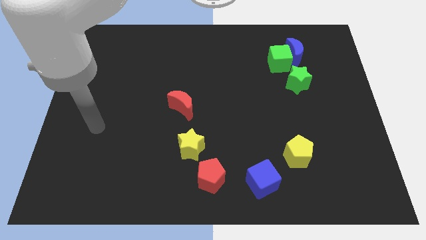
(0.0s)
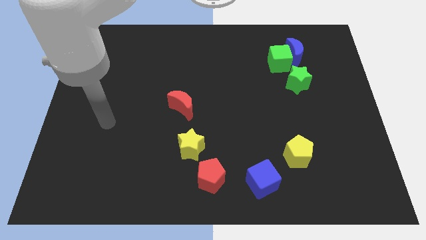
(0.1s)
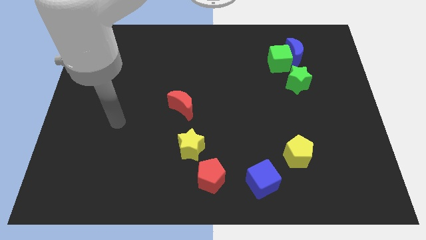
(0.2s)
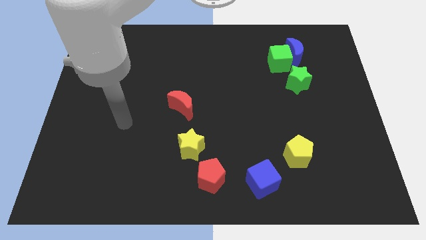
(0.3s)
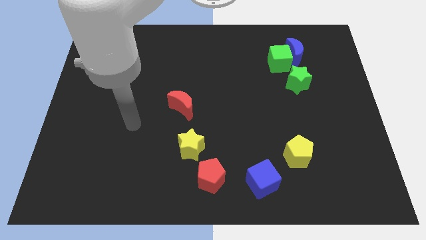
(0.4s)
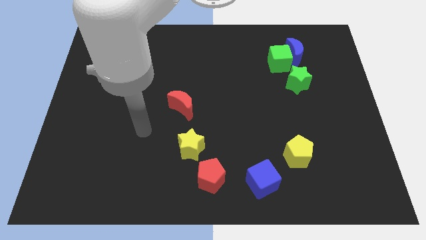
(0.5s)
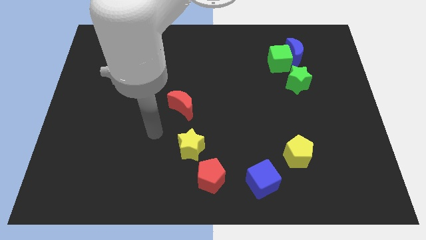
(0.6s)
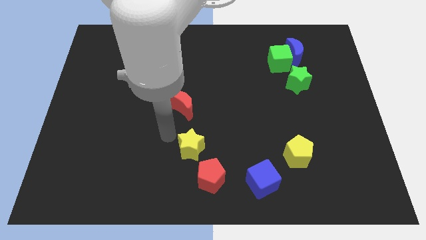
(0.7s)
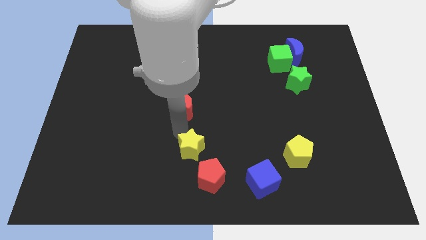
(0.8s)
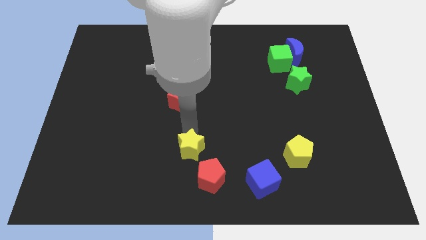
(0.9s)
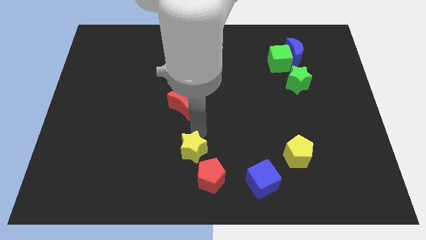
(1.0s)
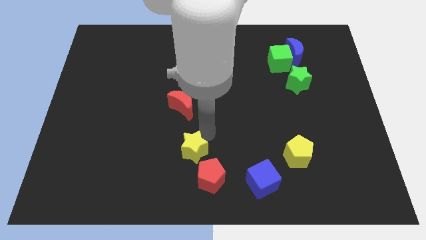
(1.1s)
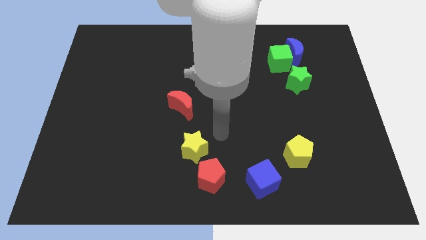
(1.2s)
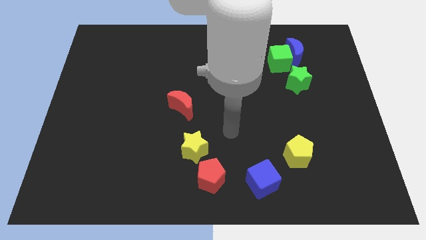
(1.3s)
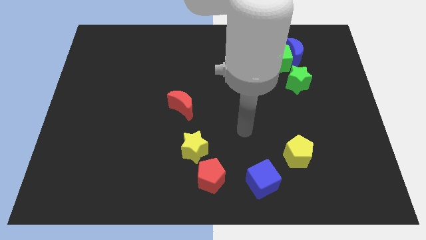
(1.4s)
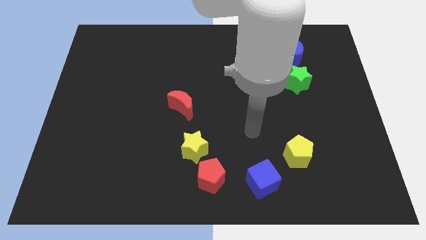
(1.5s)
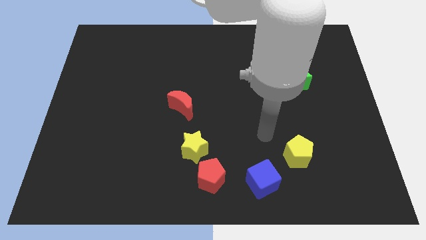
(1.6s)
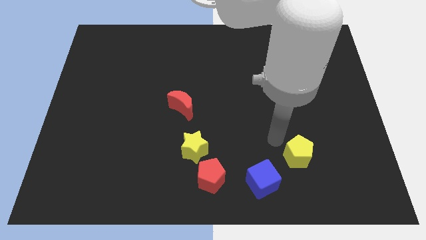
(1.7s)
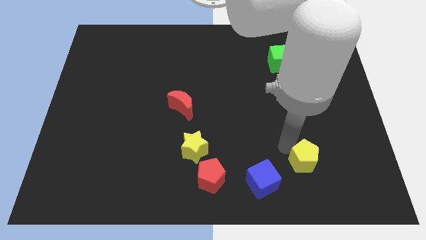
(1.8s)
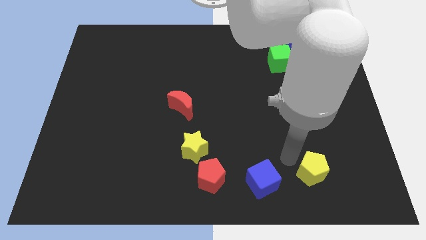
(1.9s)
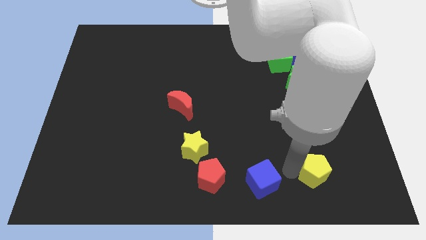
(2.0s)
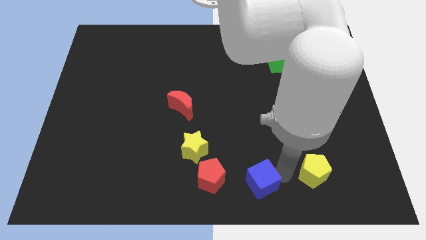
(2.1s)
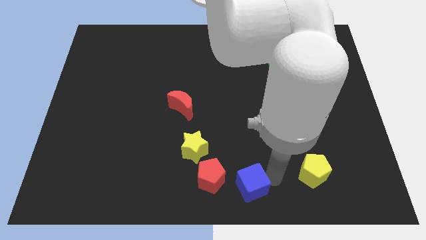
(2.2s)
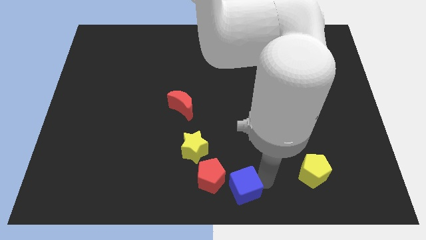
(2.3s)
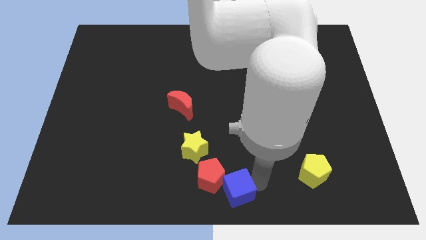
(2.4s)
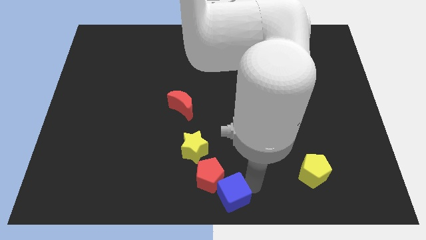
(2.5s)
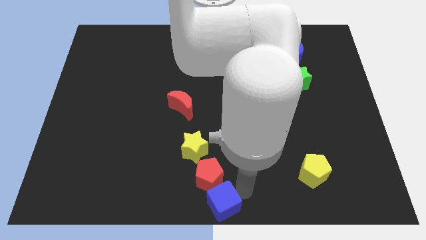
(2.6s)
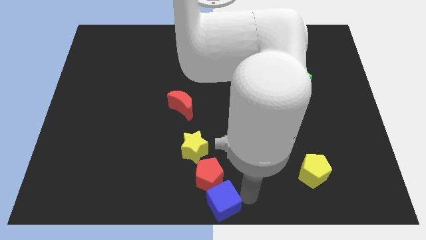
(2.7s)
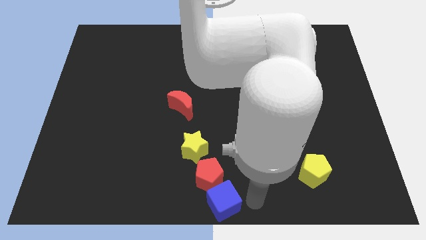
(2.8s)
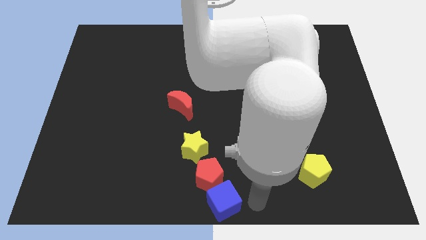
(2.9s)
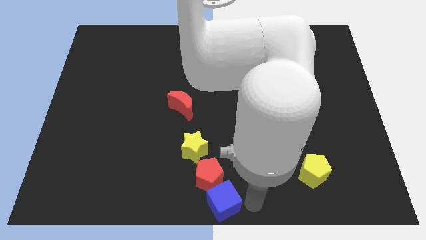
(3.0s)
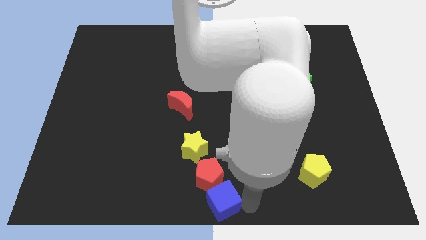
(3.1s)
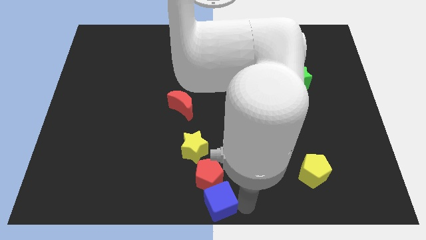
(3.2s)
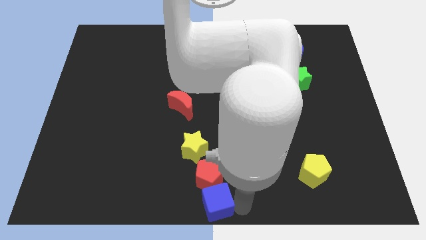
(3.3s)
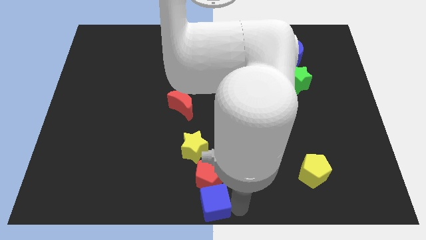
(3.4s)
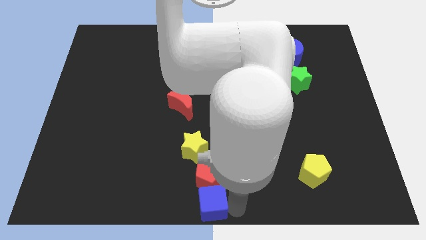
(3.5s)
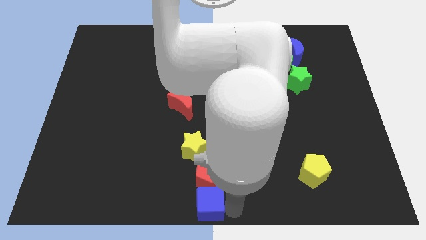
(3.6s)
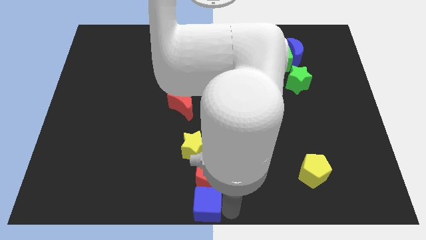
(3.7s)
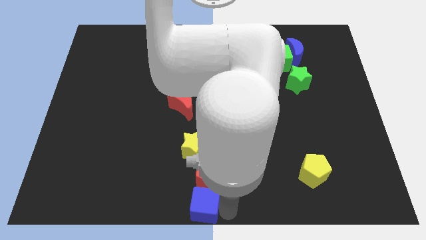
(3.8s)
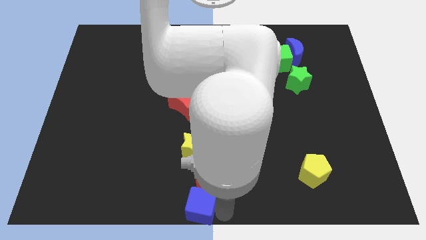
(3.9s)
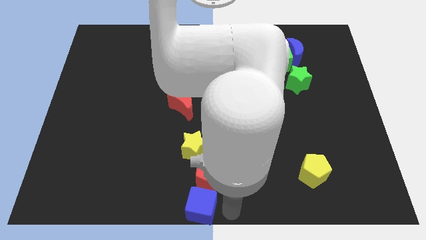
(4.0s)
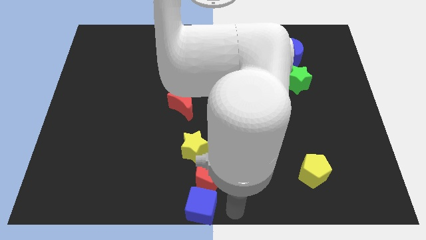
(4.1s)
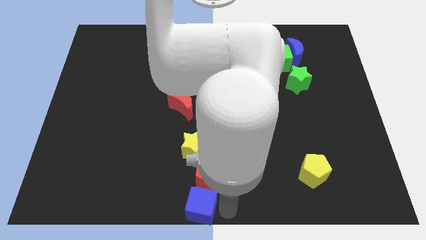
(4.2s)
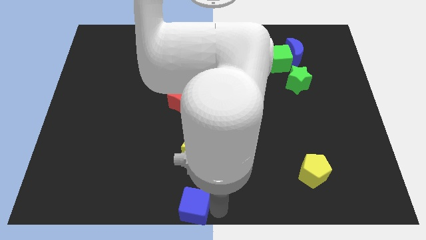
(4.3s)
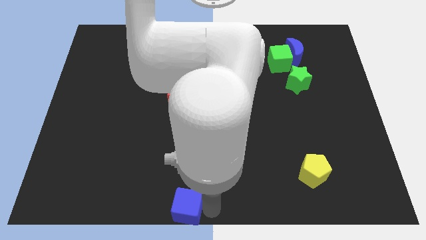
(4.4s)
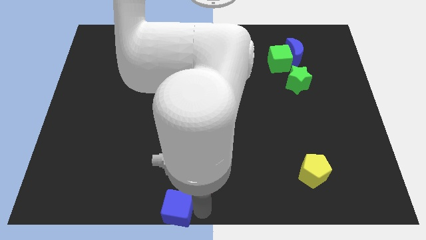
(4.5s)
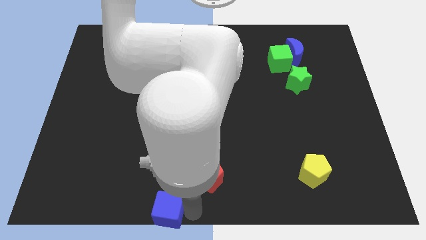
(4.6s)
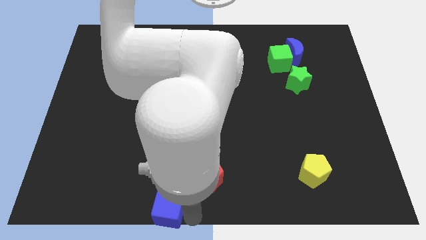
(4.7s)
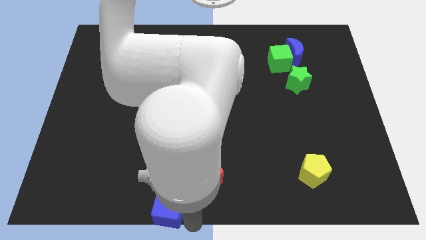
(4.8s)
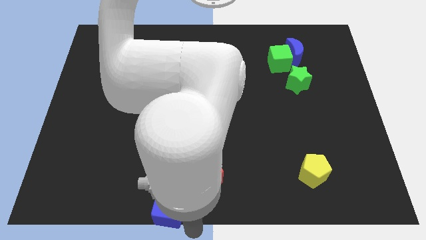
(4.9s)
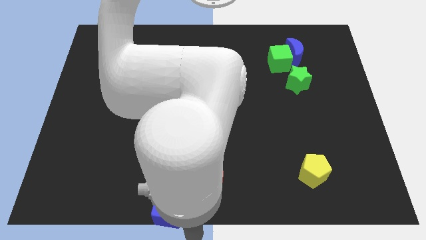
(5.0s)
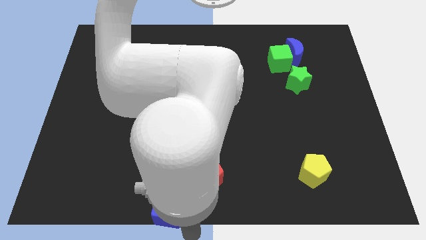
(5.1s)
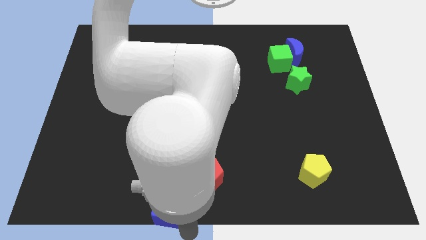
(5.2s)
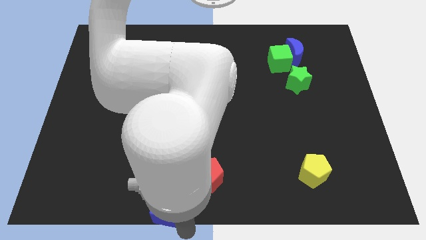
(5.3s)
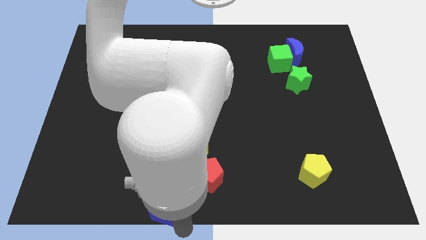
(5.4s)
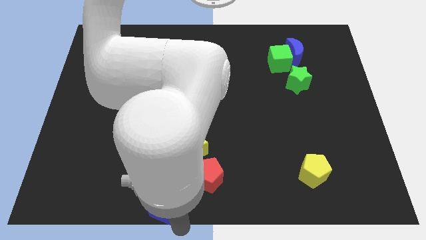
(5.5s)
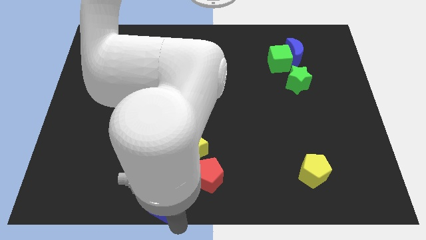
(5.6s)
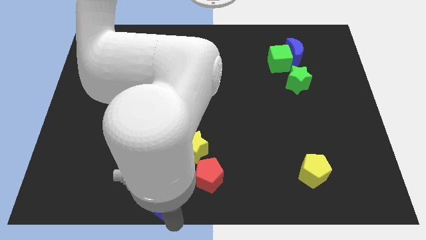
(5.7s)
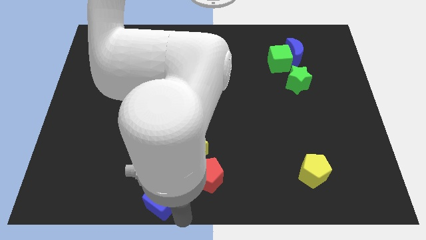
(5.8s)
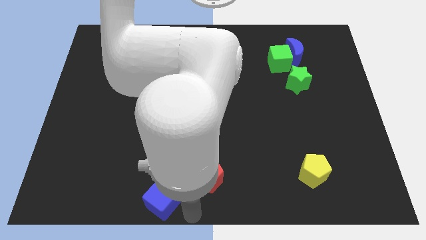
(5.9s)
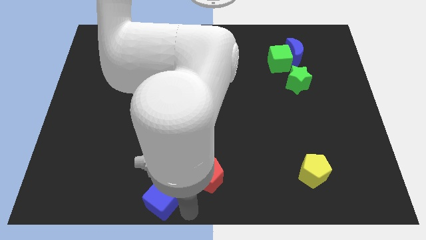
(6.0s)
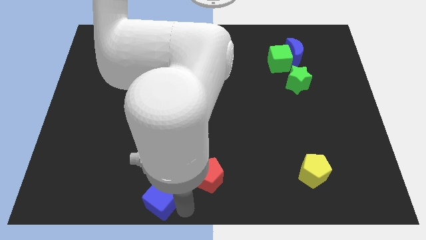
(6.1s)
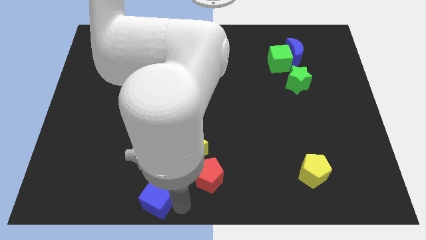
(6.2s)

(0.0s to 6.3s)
move the blue cube to the left

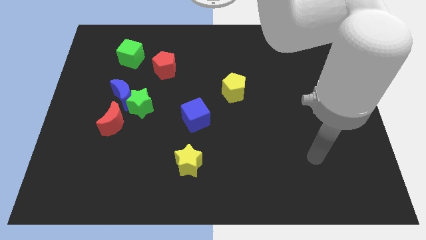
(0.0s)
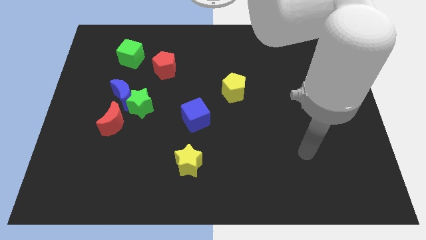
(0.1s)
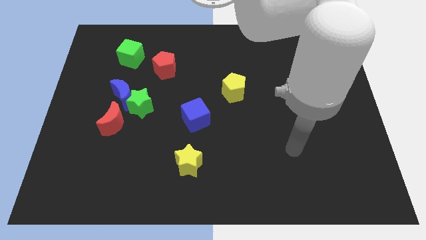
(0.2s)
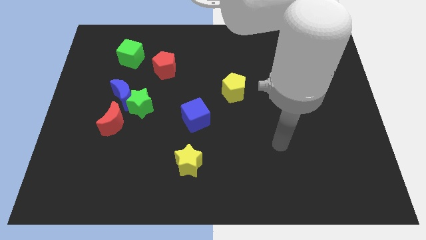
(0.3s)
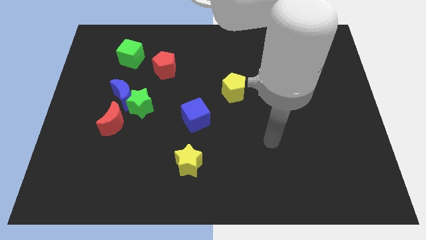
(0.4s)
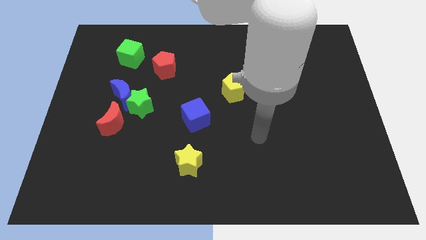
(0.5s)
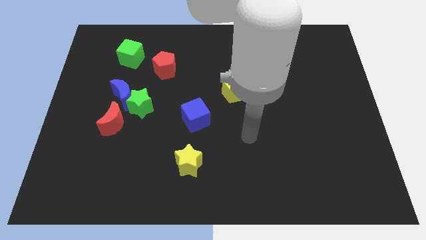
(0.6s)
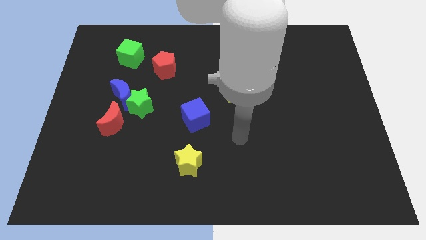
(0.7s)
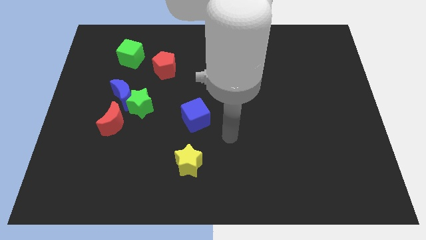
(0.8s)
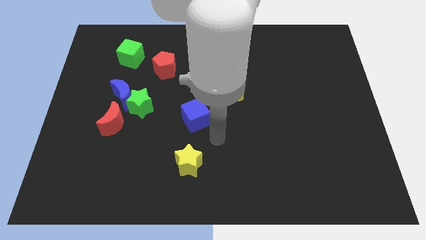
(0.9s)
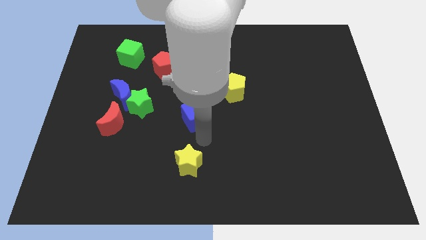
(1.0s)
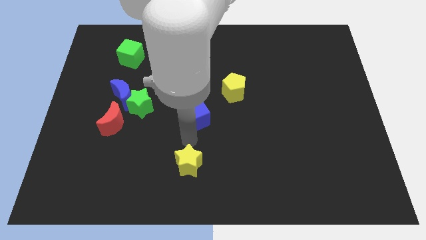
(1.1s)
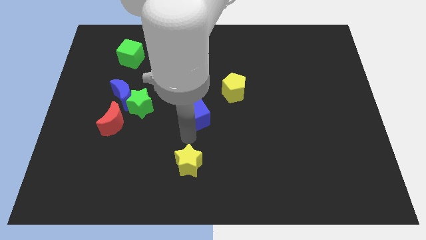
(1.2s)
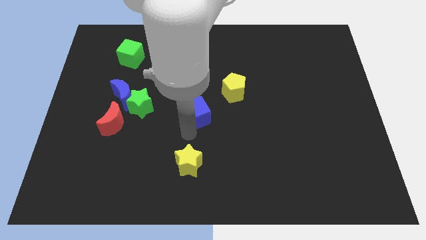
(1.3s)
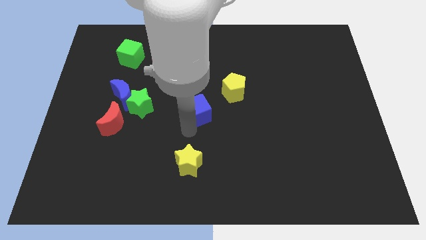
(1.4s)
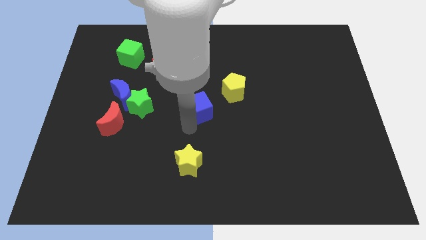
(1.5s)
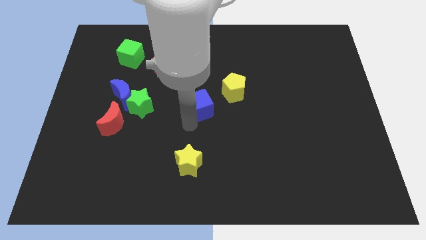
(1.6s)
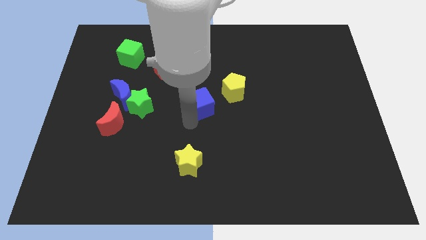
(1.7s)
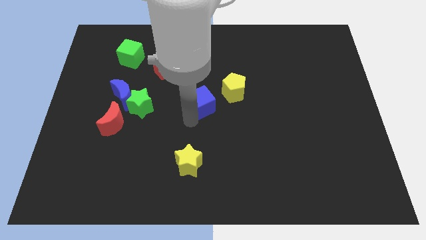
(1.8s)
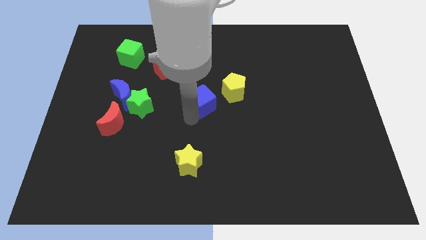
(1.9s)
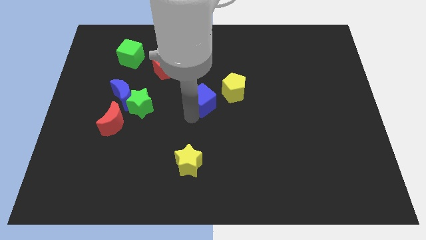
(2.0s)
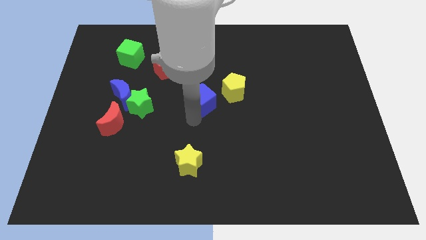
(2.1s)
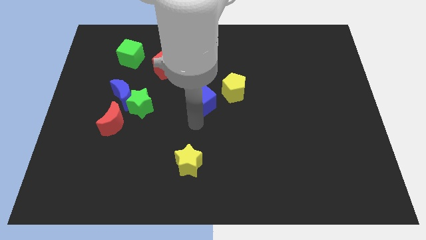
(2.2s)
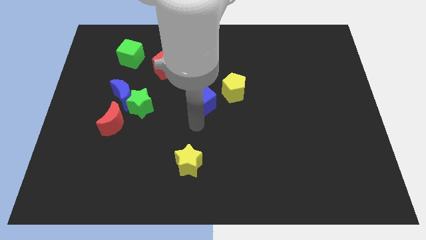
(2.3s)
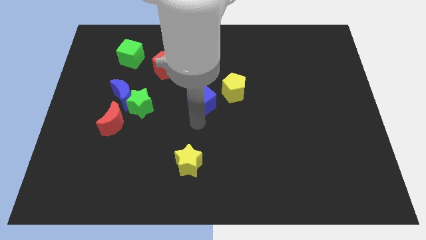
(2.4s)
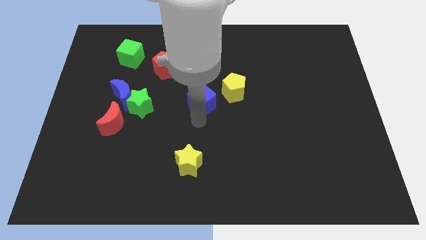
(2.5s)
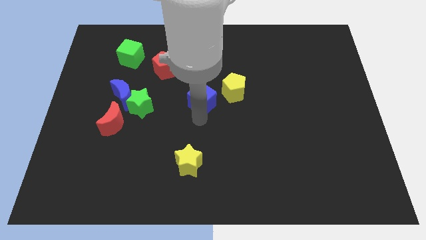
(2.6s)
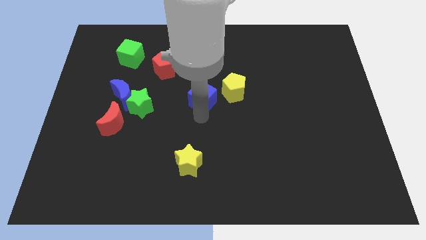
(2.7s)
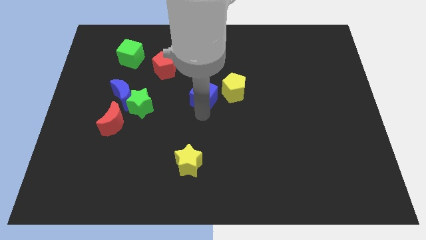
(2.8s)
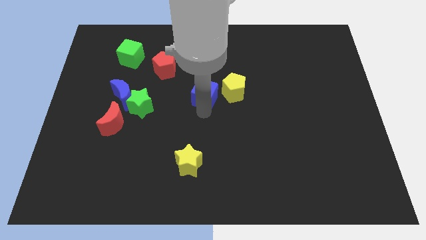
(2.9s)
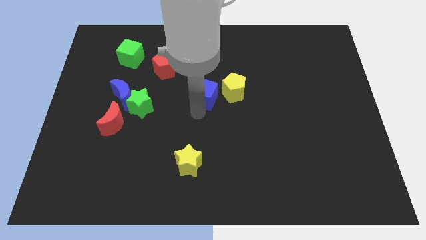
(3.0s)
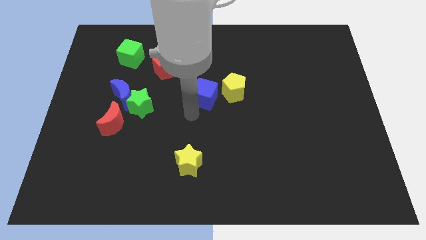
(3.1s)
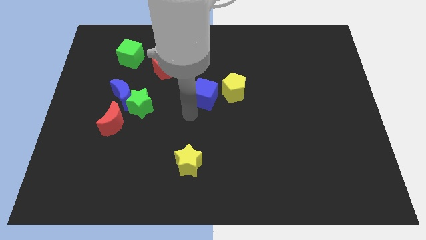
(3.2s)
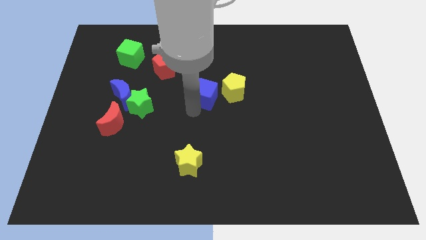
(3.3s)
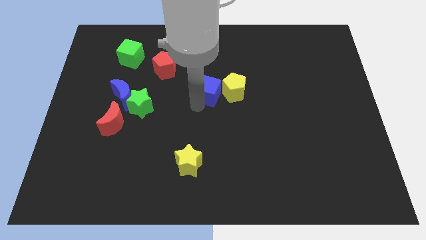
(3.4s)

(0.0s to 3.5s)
push the blue cube up and right diagonally a little bit
